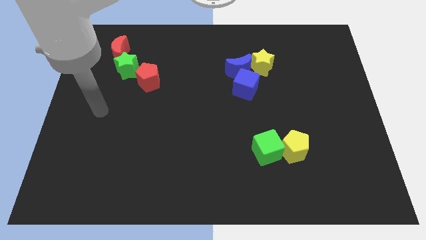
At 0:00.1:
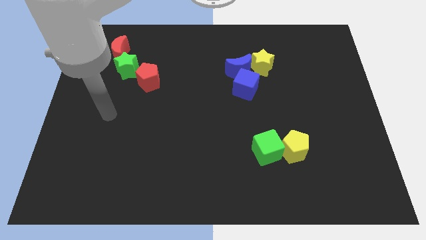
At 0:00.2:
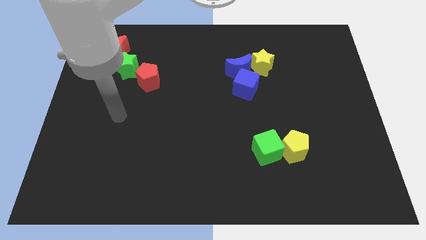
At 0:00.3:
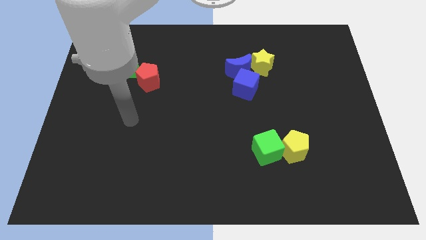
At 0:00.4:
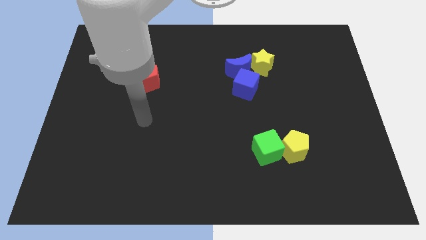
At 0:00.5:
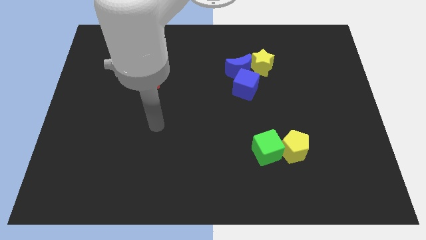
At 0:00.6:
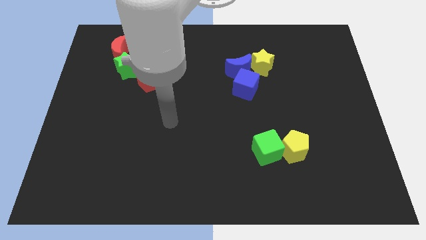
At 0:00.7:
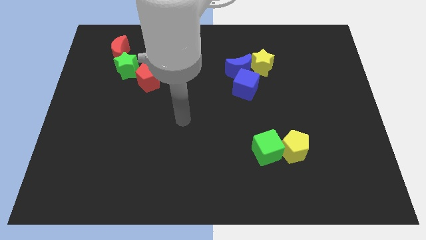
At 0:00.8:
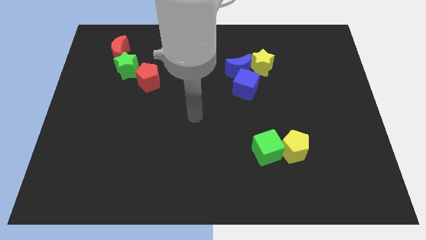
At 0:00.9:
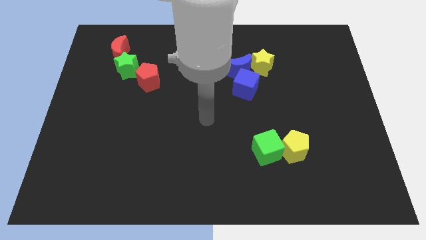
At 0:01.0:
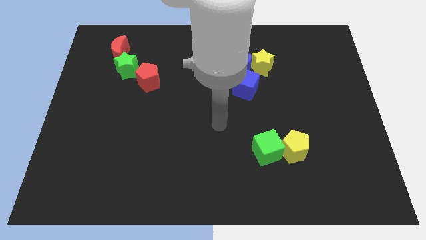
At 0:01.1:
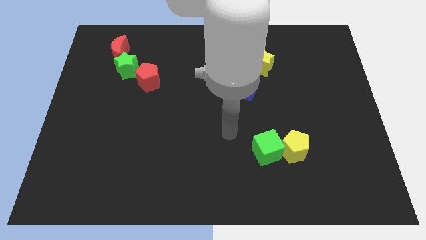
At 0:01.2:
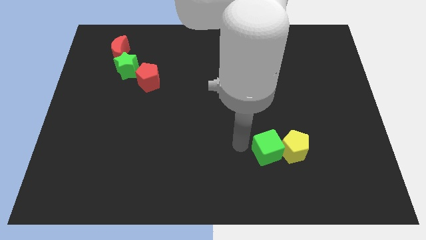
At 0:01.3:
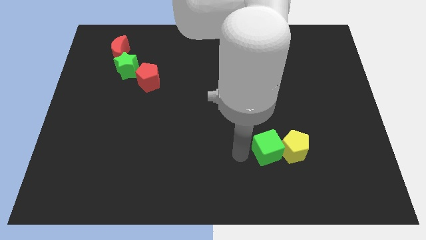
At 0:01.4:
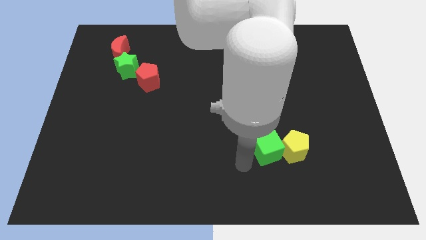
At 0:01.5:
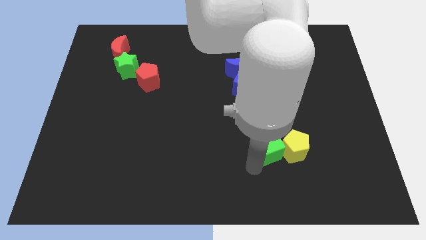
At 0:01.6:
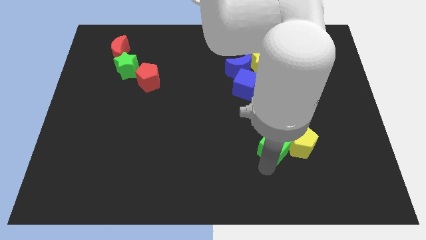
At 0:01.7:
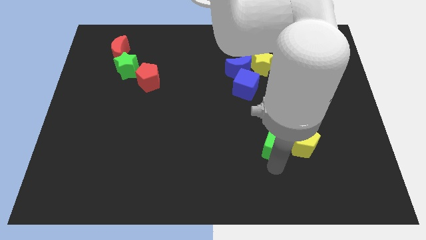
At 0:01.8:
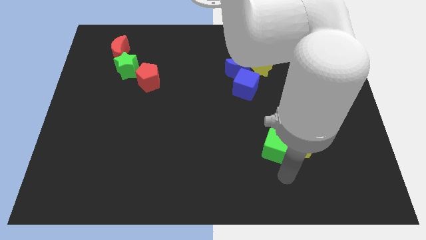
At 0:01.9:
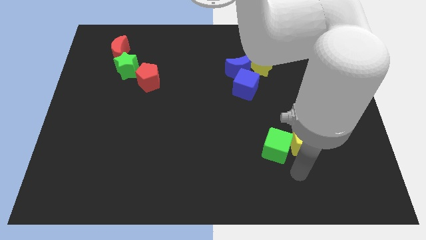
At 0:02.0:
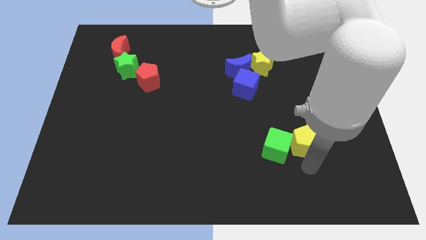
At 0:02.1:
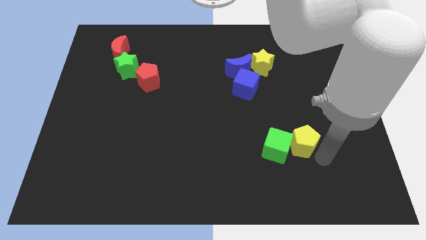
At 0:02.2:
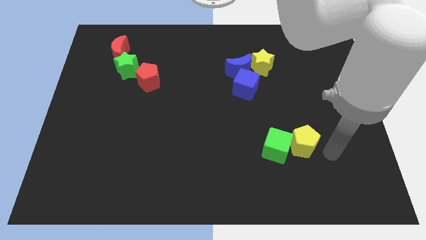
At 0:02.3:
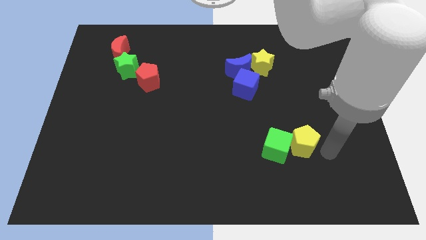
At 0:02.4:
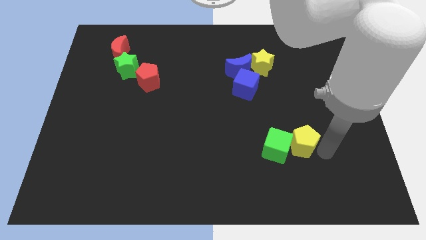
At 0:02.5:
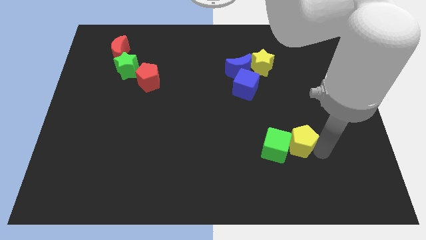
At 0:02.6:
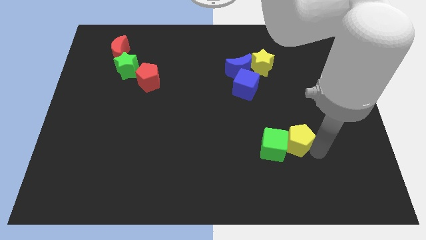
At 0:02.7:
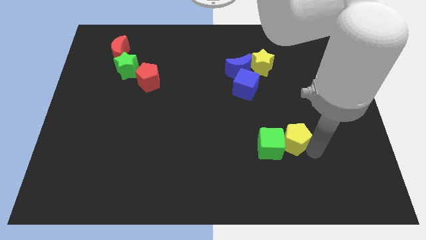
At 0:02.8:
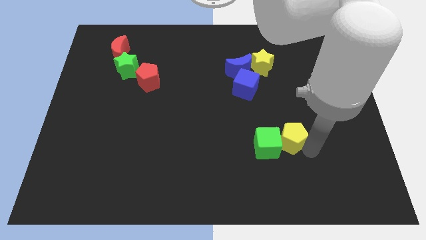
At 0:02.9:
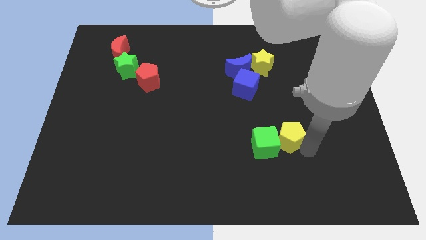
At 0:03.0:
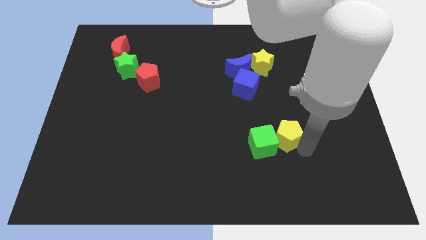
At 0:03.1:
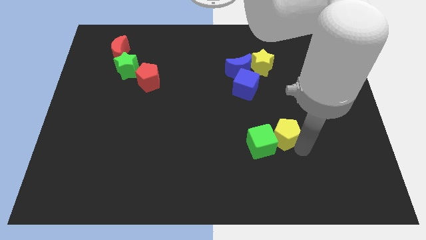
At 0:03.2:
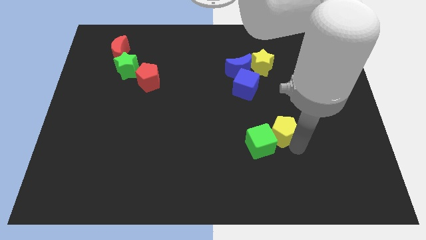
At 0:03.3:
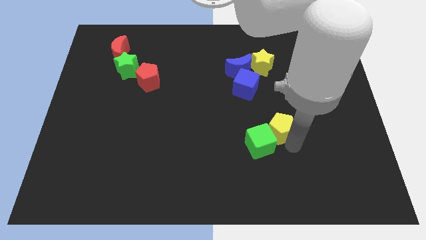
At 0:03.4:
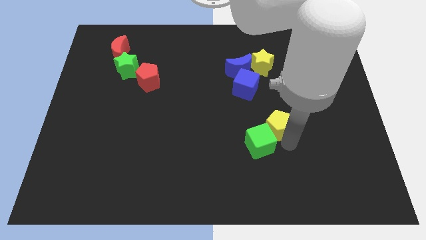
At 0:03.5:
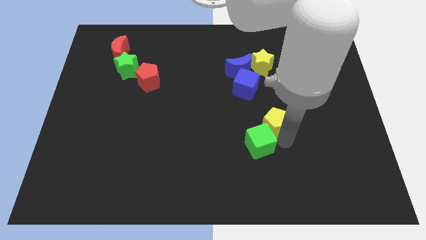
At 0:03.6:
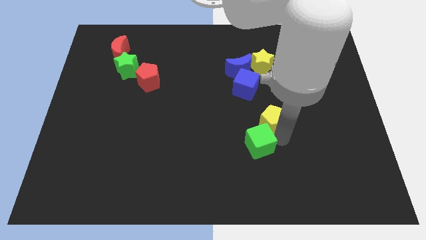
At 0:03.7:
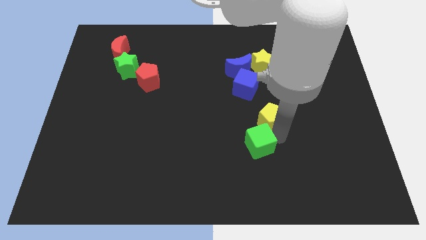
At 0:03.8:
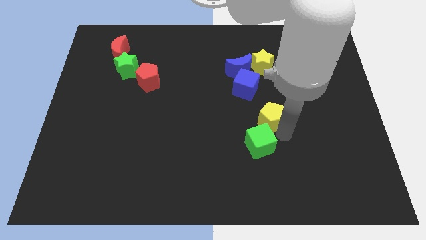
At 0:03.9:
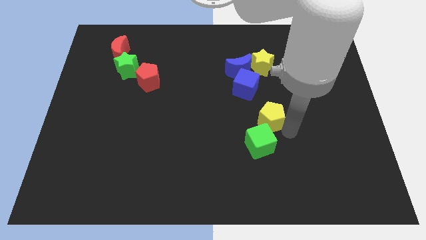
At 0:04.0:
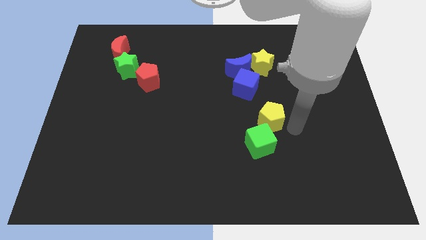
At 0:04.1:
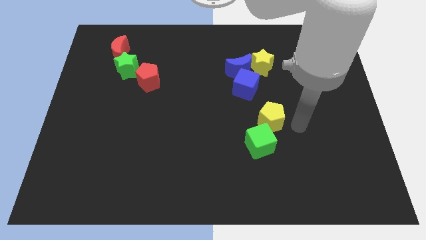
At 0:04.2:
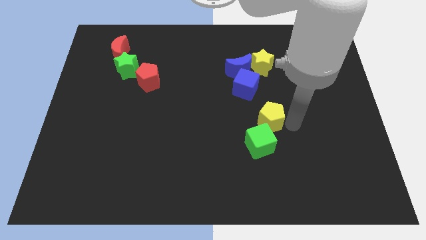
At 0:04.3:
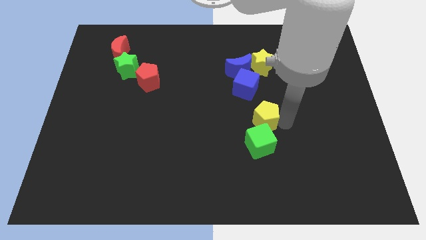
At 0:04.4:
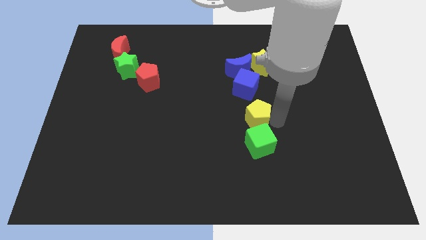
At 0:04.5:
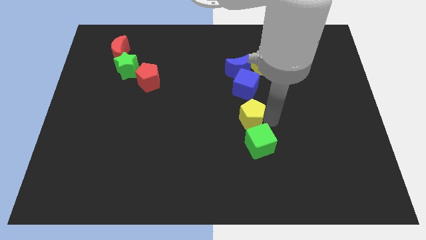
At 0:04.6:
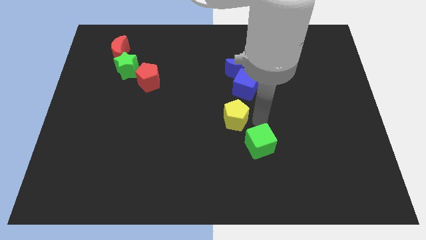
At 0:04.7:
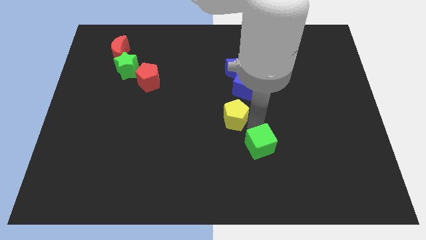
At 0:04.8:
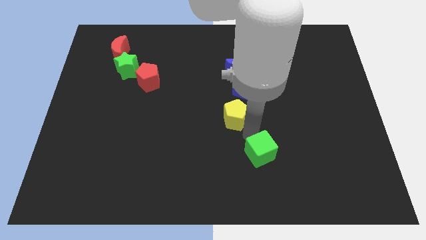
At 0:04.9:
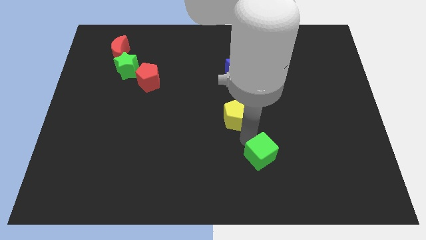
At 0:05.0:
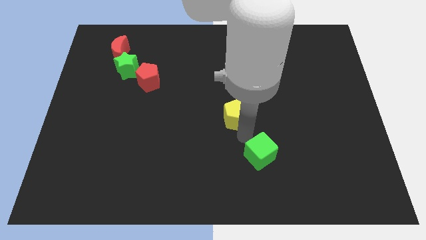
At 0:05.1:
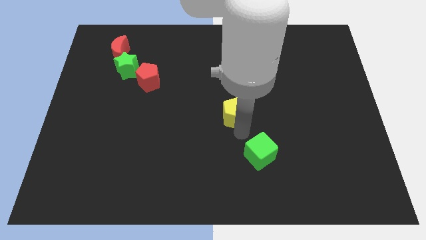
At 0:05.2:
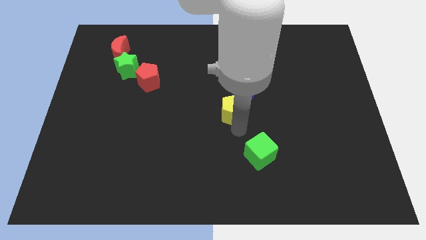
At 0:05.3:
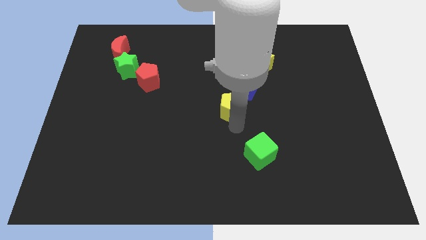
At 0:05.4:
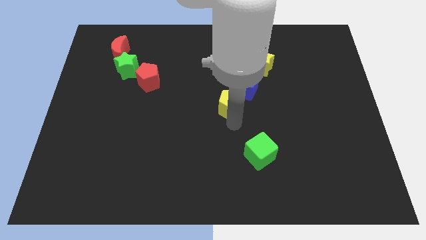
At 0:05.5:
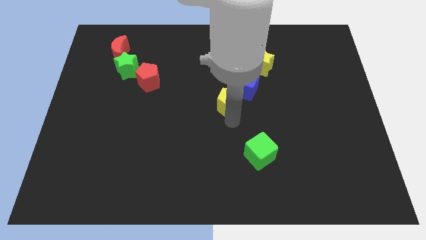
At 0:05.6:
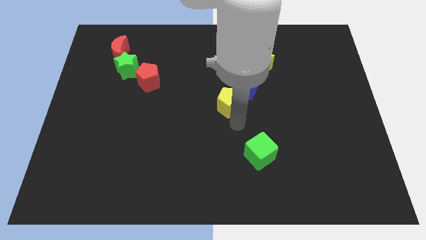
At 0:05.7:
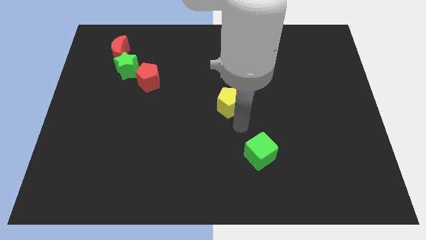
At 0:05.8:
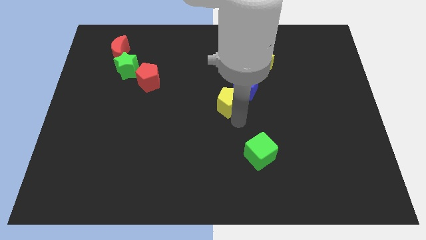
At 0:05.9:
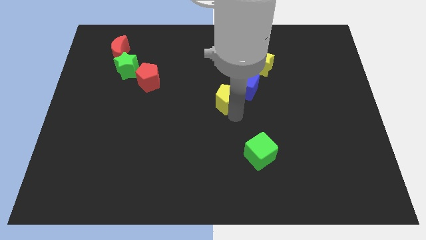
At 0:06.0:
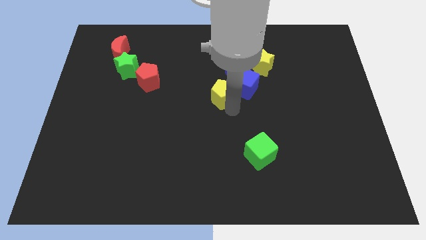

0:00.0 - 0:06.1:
slide the yellow pentagon to the bottom left side of the blue moon

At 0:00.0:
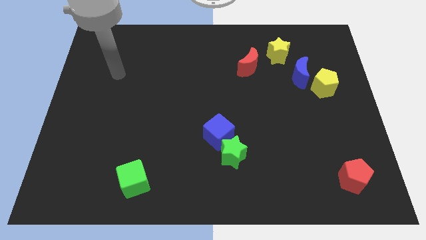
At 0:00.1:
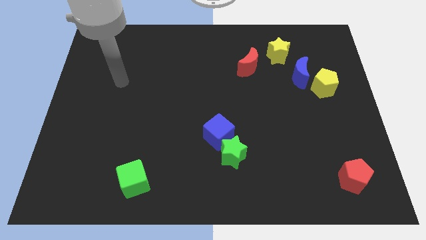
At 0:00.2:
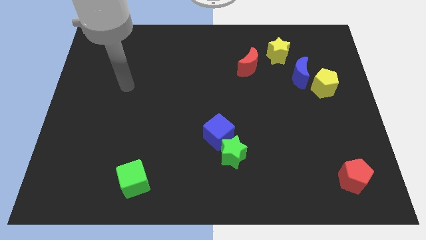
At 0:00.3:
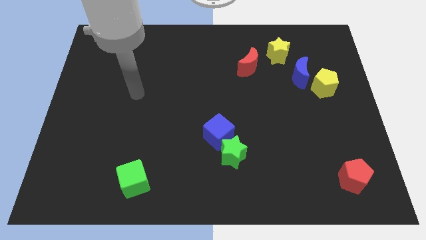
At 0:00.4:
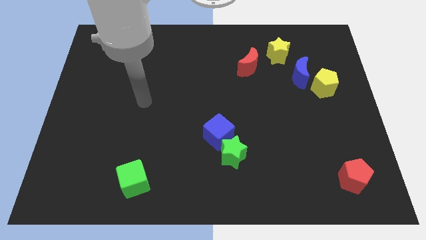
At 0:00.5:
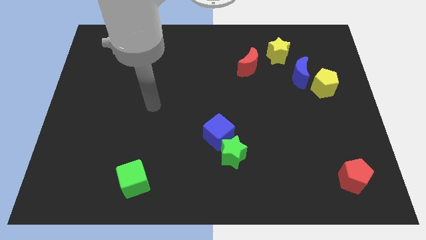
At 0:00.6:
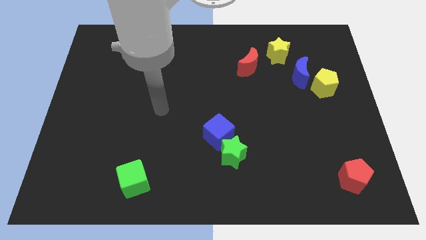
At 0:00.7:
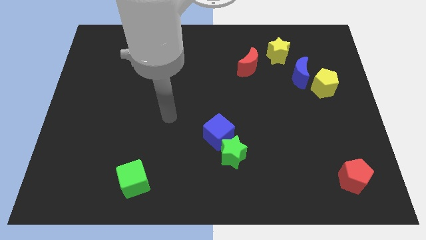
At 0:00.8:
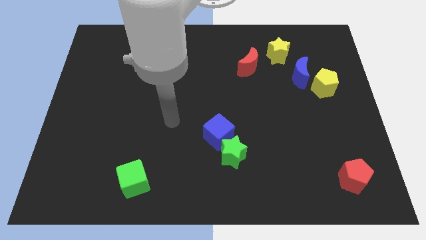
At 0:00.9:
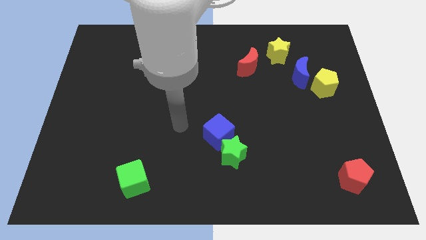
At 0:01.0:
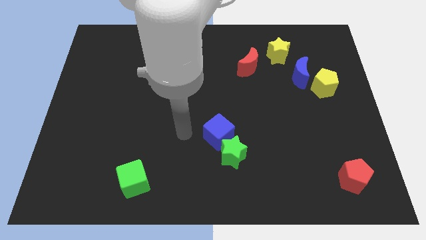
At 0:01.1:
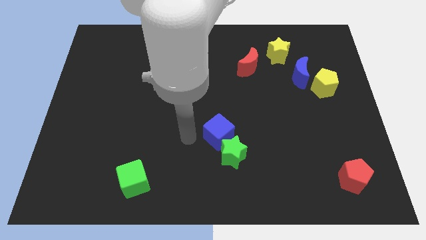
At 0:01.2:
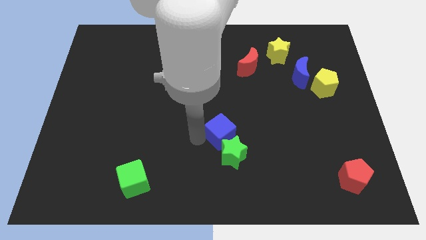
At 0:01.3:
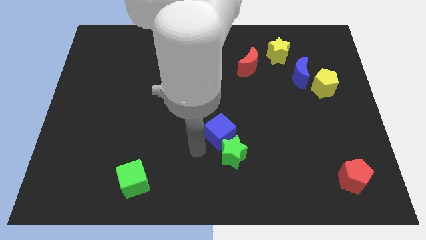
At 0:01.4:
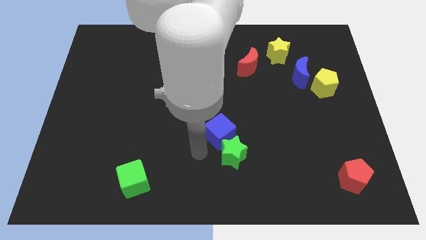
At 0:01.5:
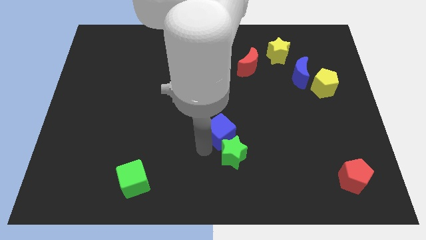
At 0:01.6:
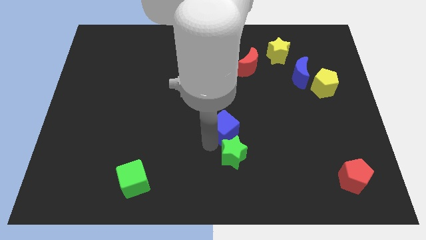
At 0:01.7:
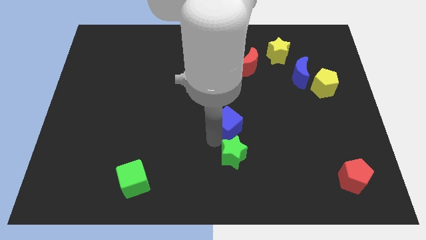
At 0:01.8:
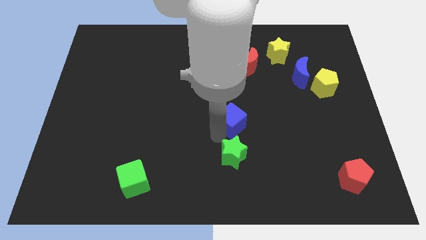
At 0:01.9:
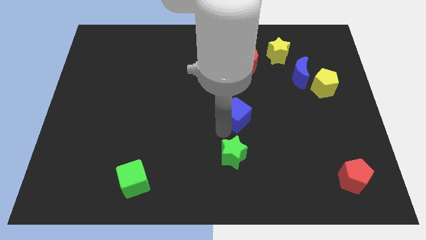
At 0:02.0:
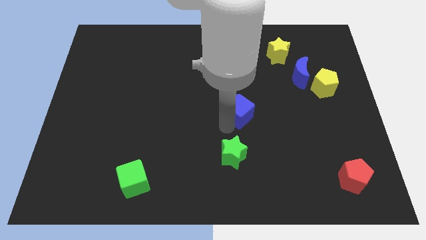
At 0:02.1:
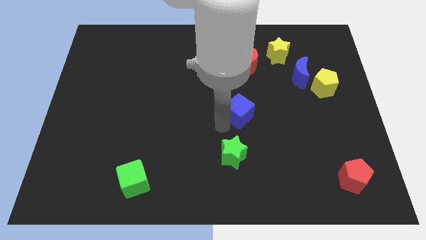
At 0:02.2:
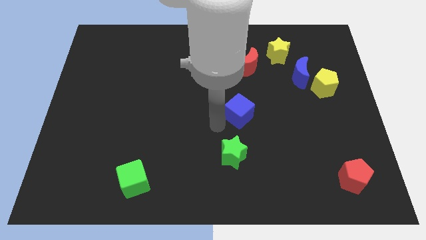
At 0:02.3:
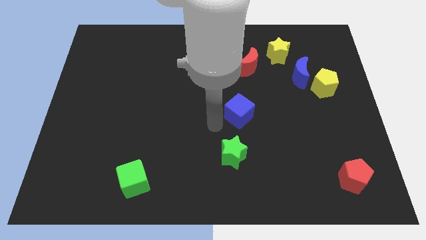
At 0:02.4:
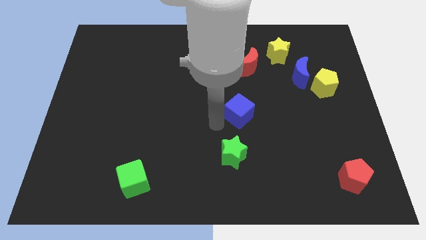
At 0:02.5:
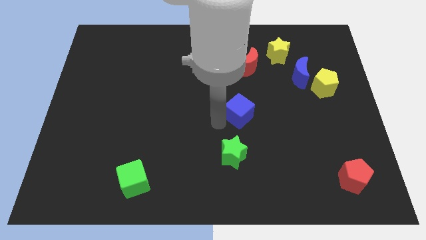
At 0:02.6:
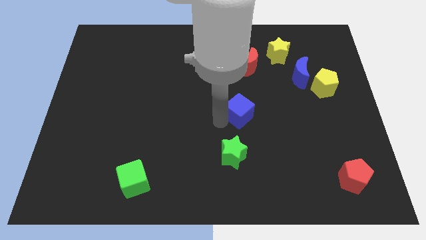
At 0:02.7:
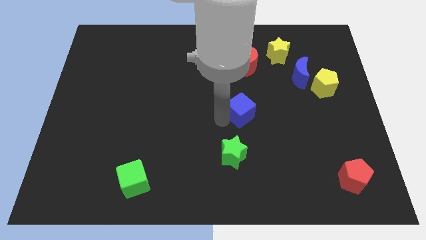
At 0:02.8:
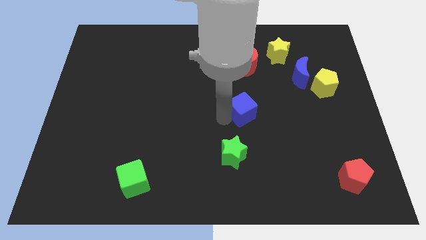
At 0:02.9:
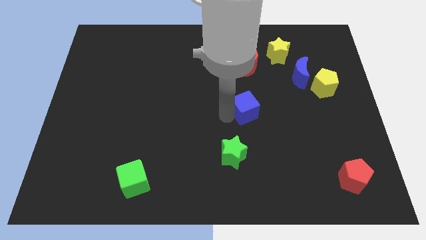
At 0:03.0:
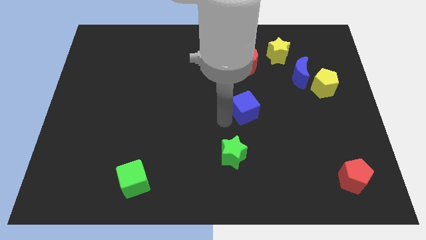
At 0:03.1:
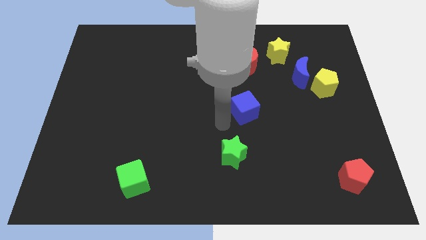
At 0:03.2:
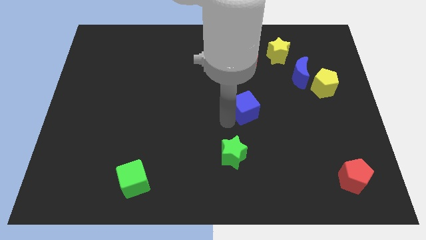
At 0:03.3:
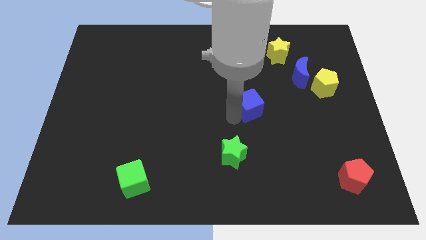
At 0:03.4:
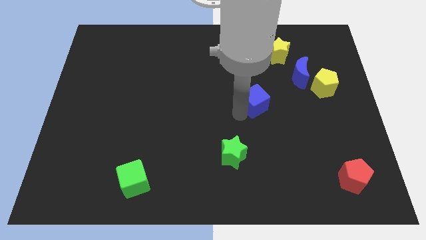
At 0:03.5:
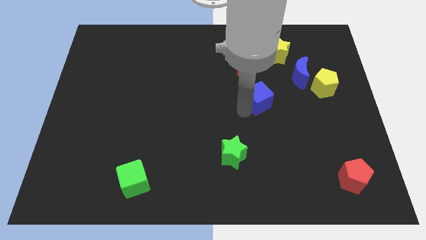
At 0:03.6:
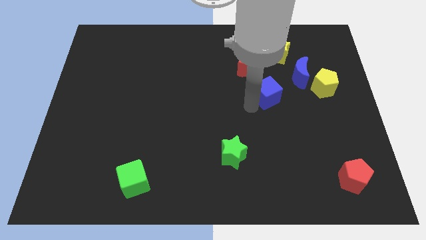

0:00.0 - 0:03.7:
put the blue cube below the yellow star
